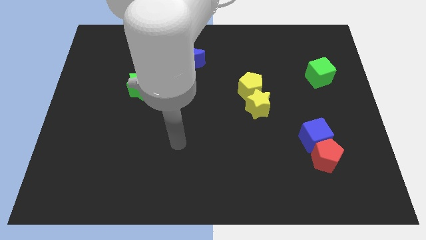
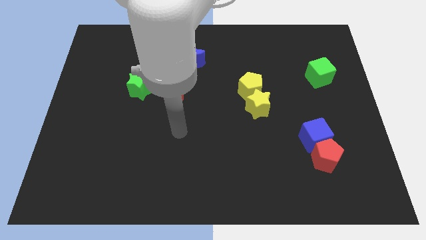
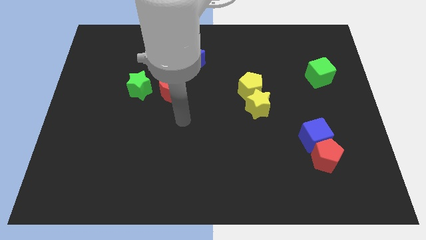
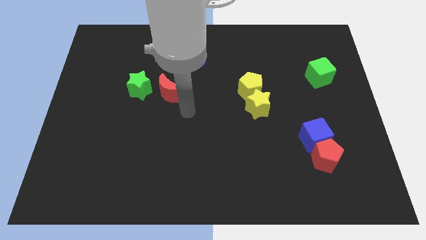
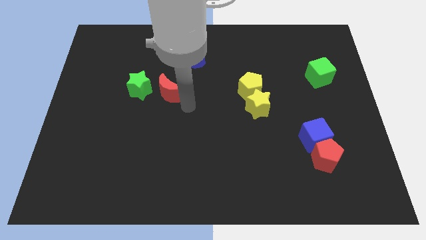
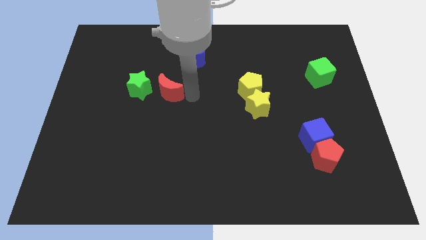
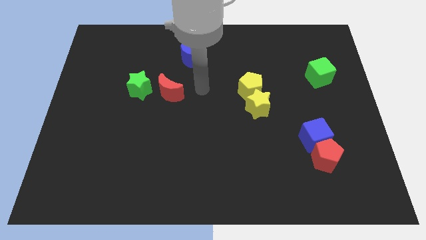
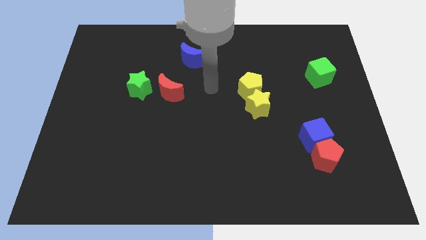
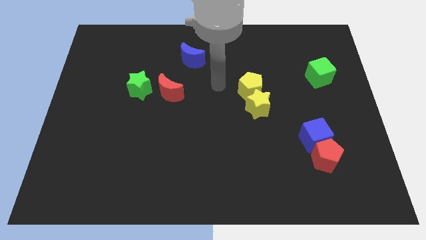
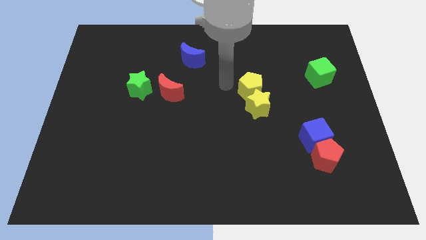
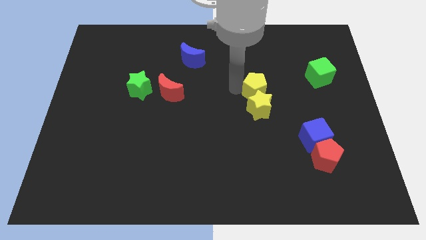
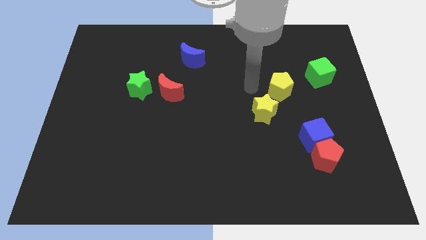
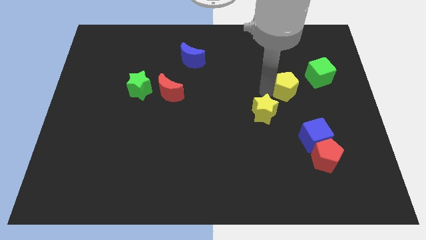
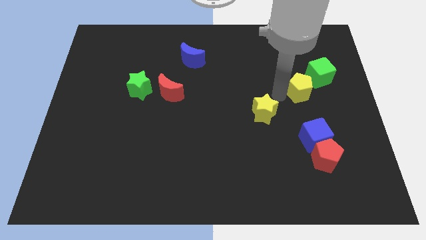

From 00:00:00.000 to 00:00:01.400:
move the yellow star away from the yellow pentagon

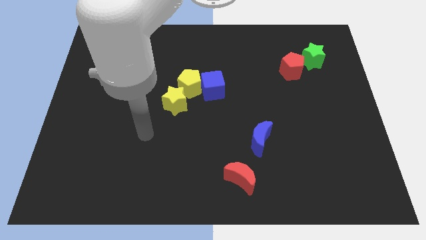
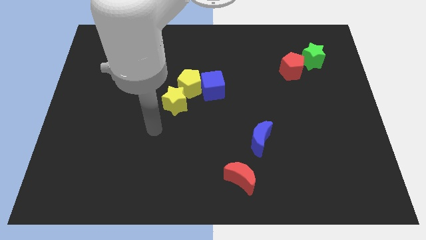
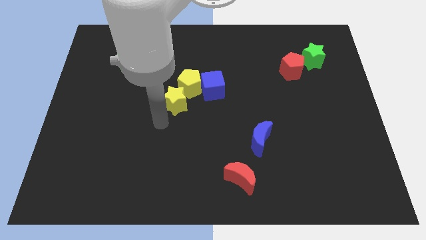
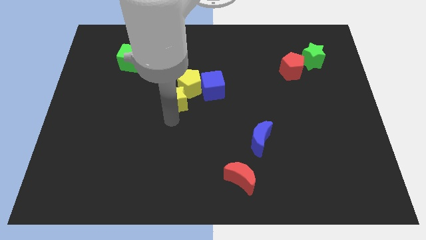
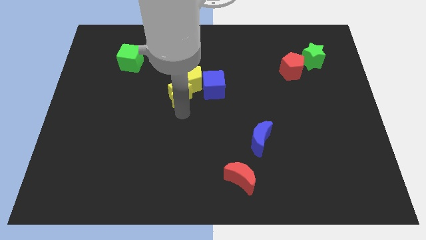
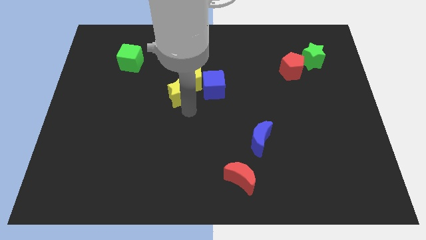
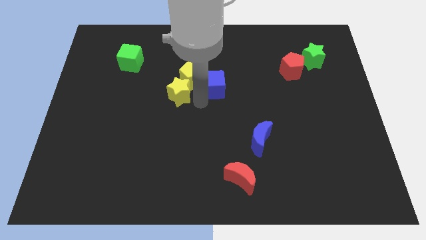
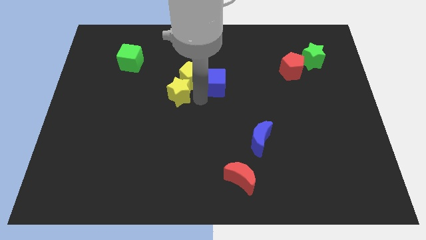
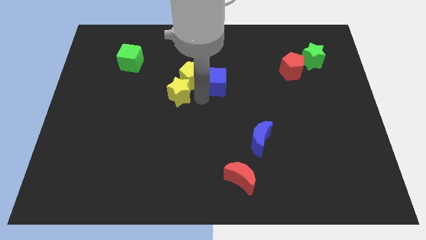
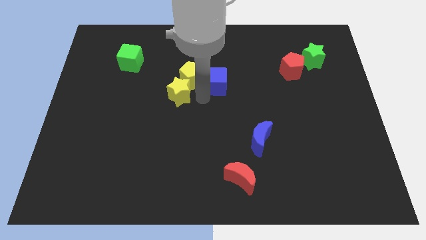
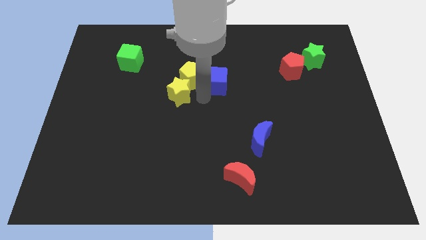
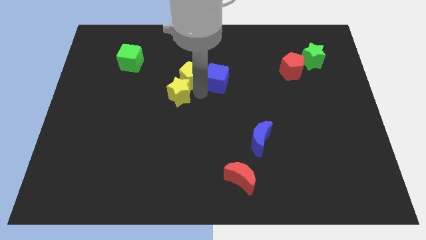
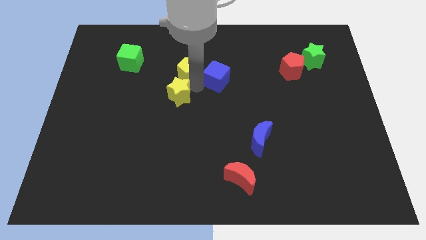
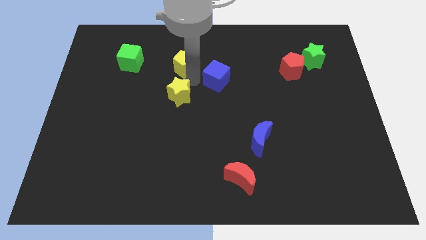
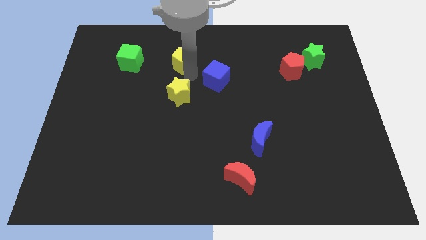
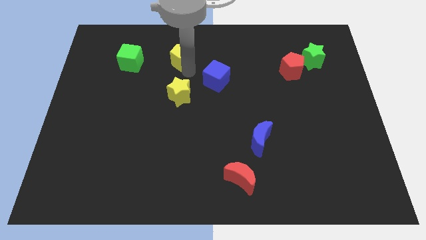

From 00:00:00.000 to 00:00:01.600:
pull the yellow pentagon apart from the blue cube and yellow star

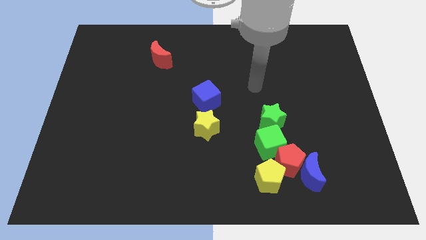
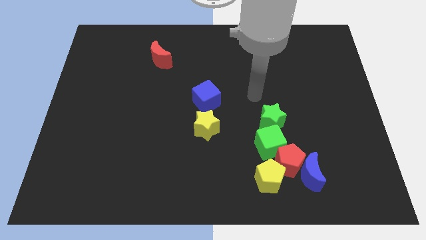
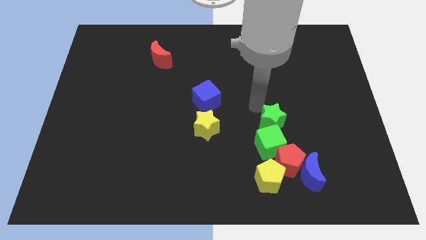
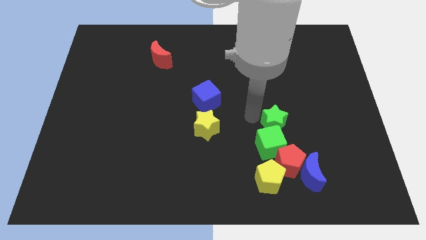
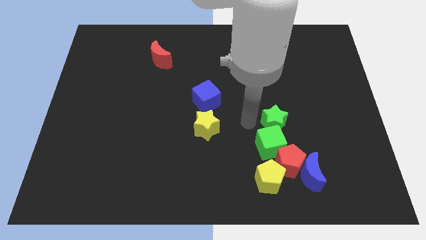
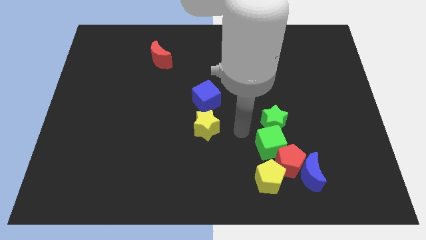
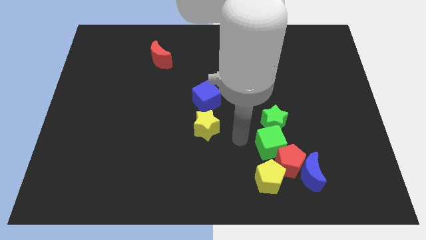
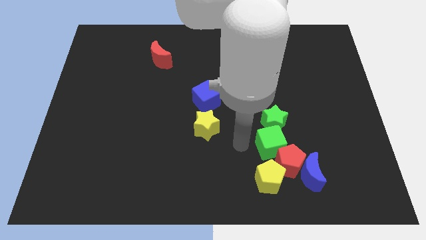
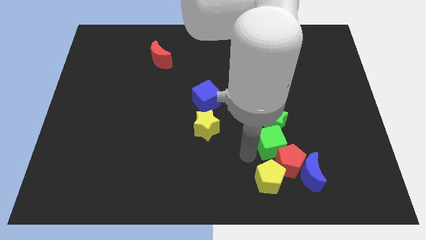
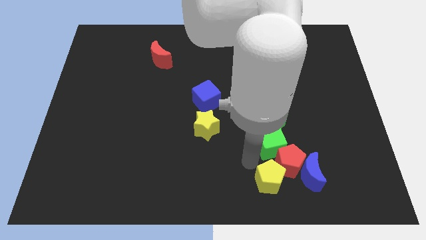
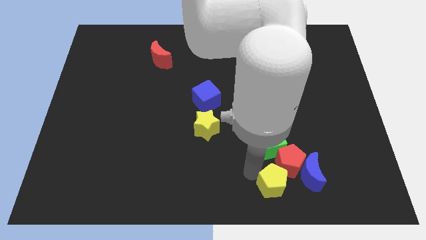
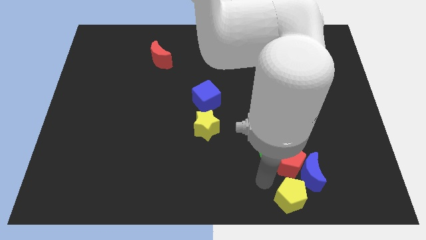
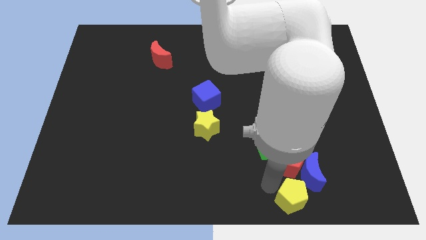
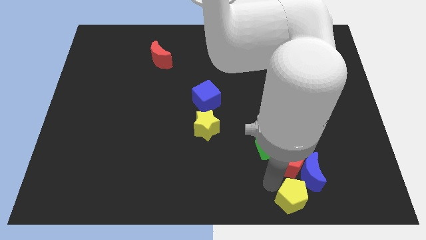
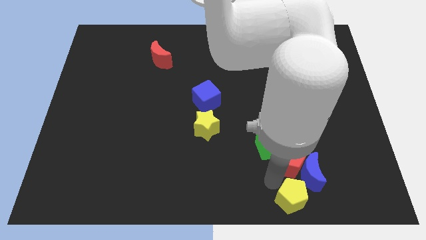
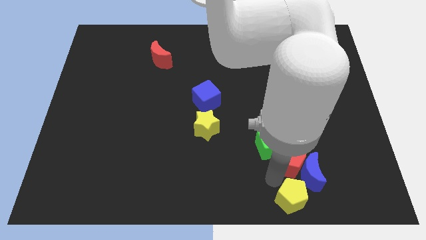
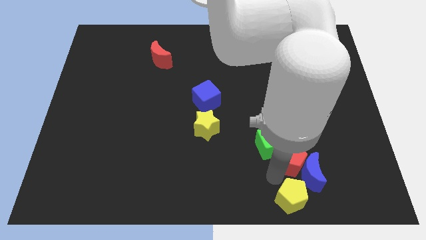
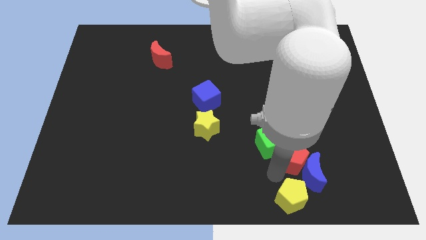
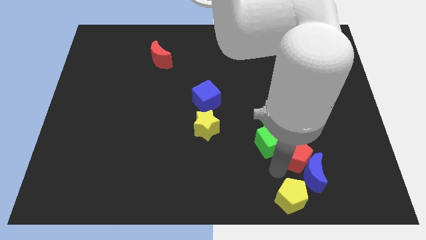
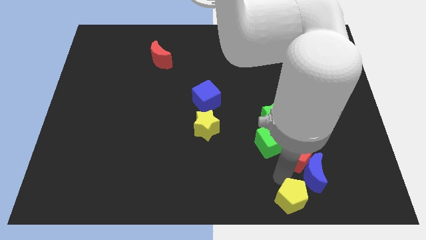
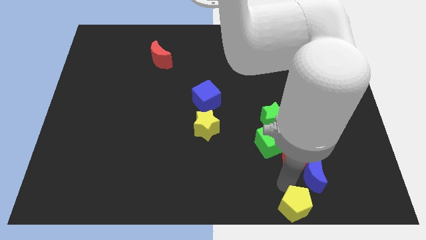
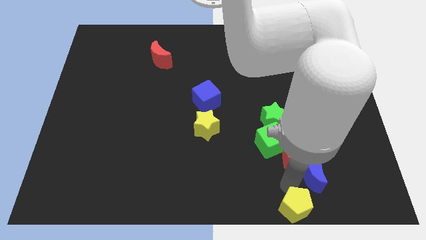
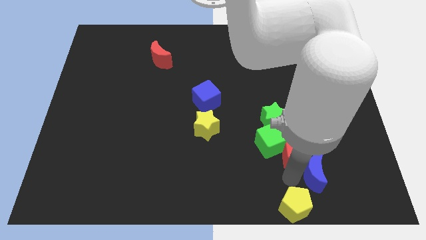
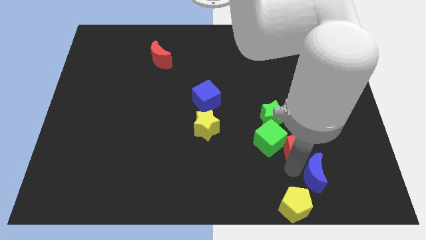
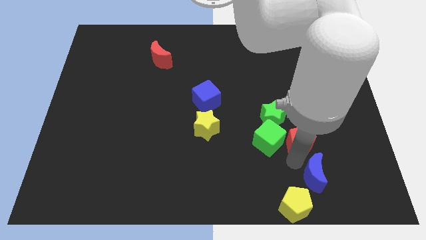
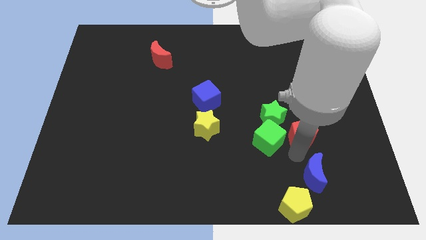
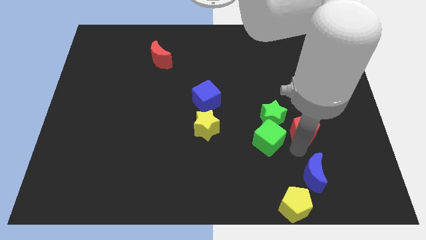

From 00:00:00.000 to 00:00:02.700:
pull the red pentagon apart from the group of blocks

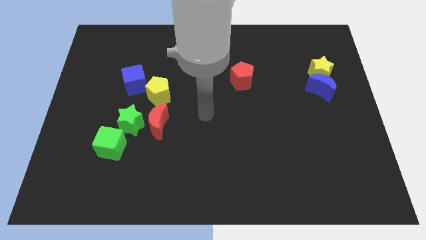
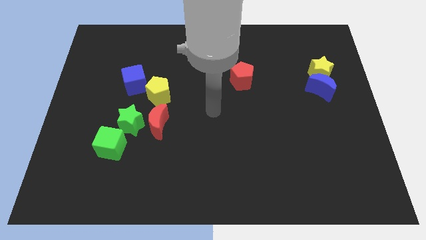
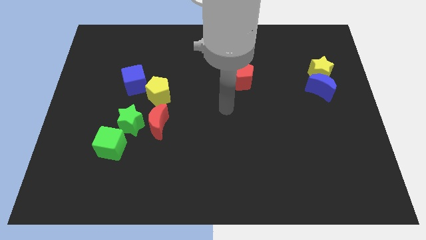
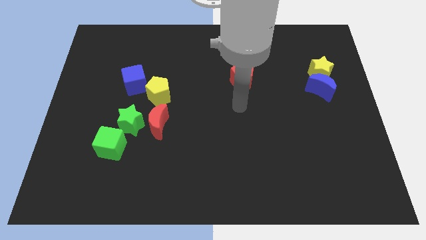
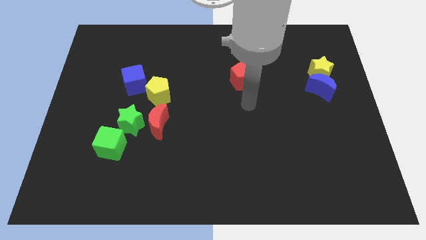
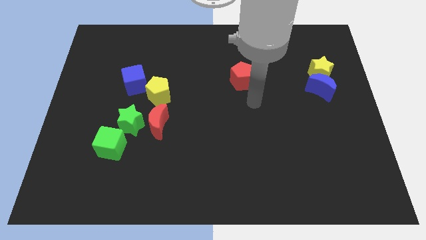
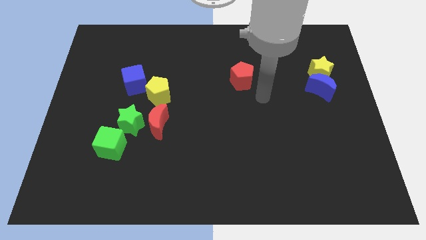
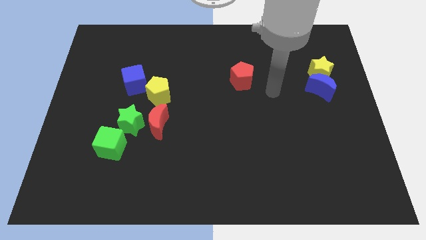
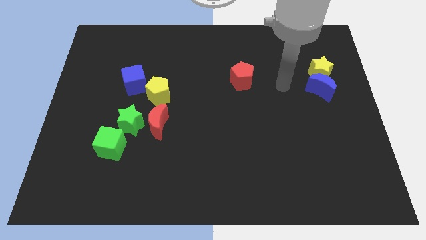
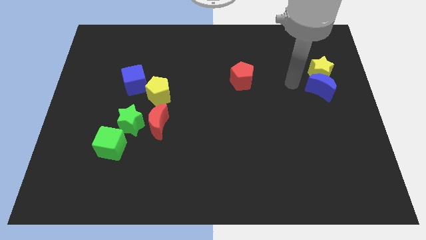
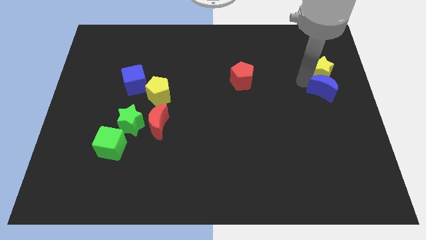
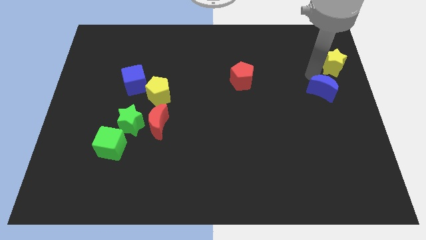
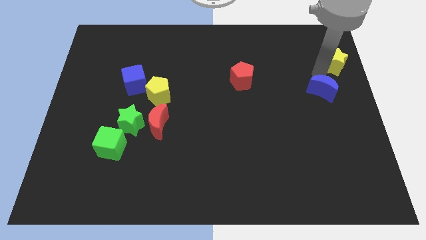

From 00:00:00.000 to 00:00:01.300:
separate the blue moon from the yellow star

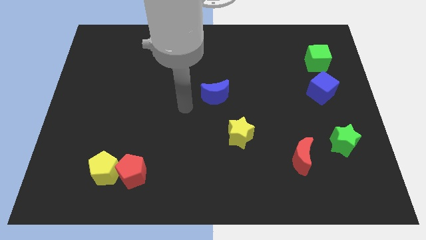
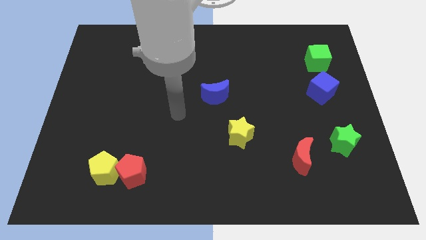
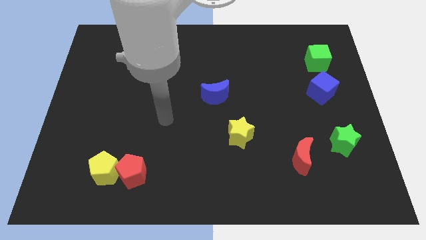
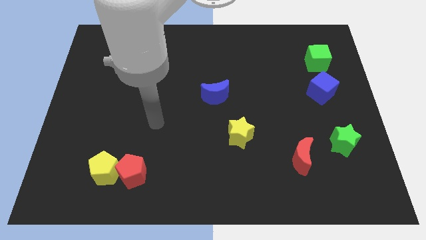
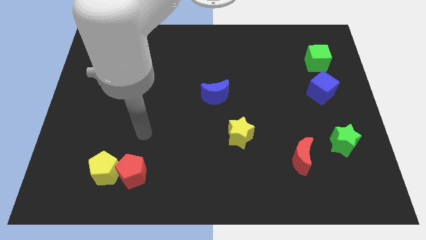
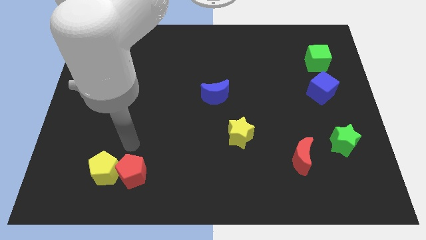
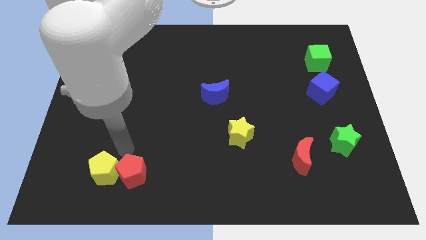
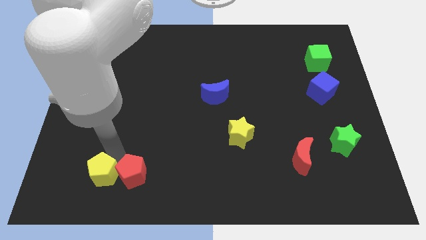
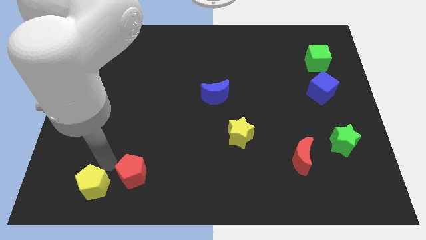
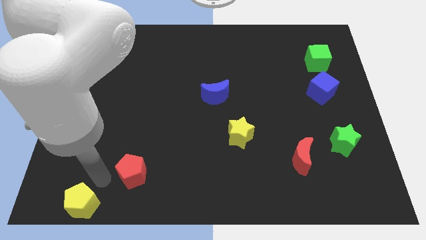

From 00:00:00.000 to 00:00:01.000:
separate the red pentagon from the yellow pentagon

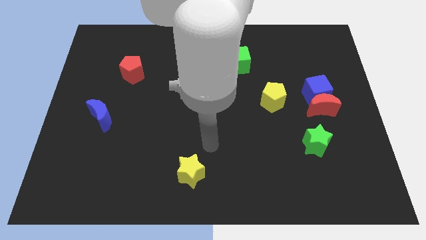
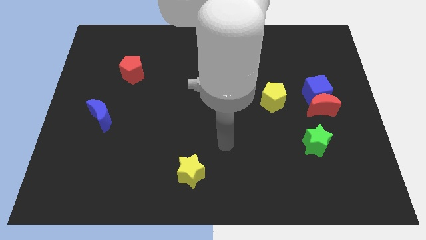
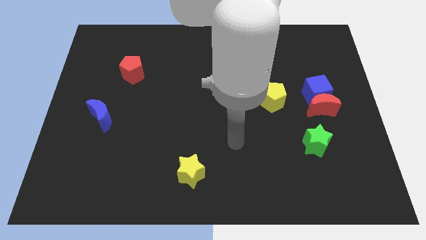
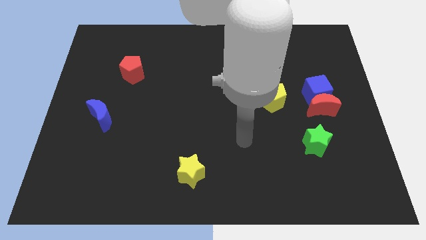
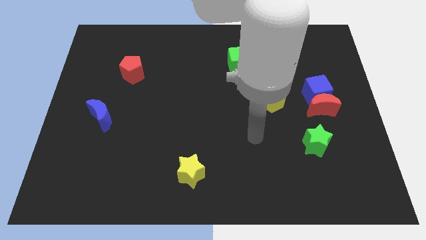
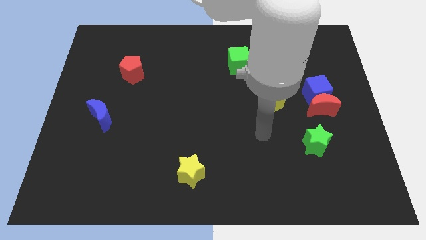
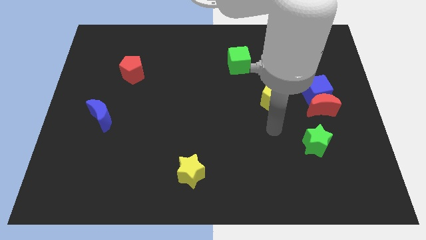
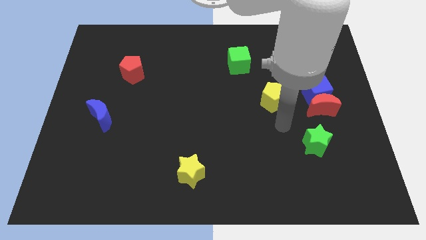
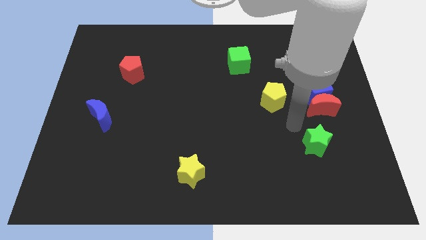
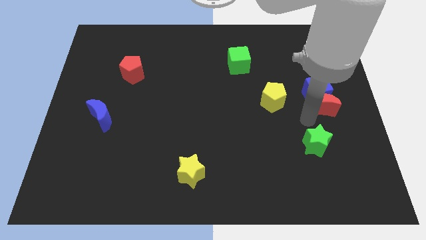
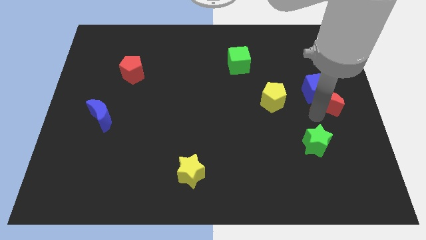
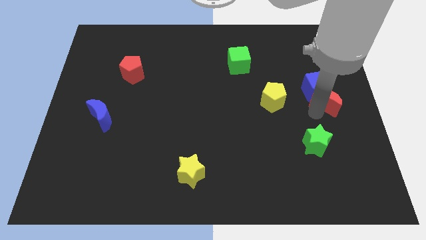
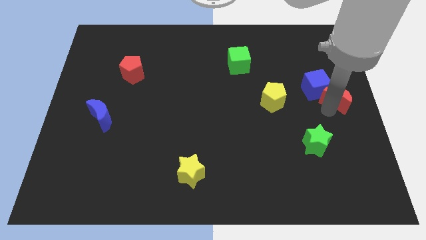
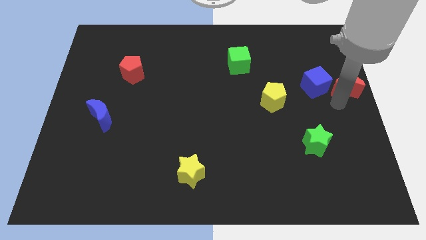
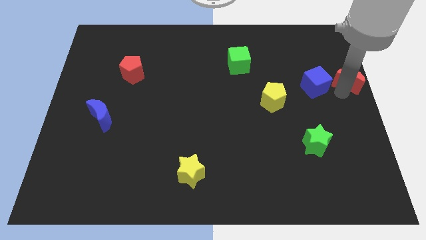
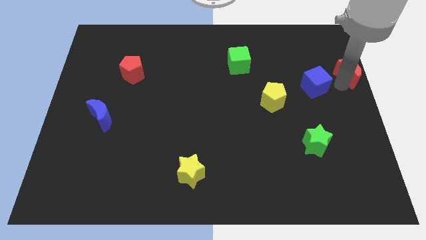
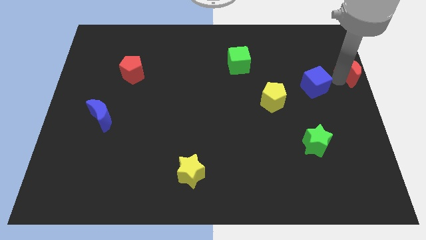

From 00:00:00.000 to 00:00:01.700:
separate the blue cube from the red moon
